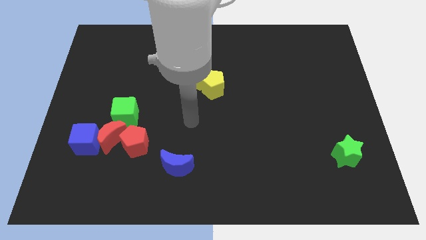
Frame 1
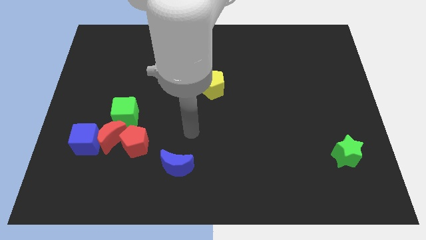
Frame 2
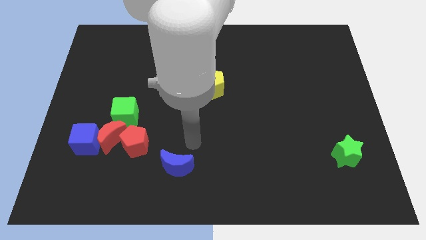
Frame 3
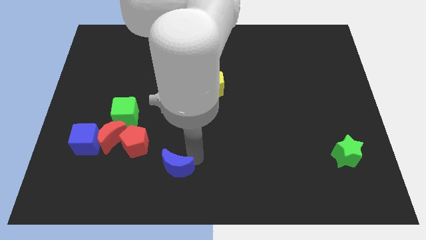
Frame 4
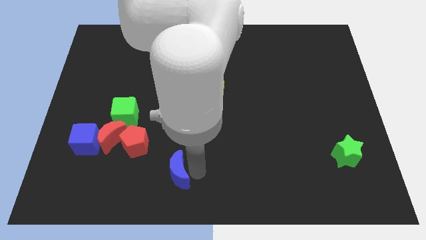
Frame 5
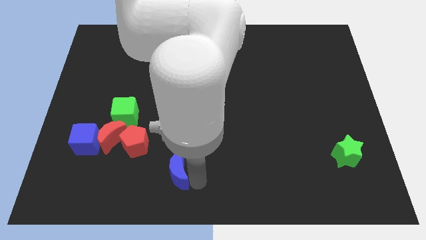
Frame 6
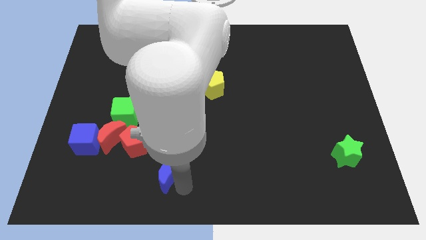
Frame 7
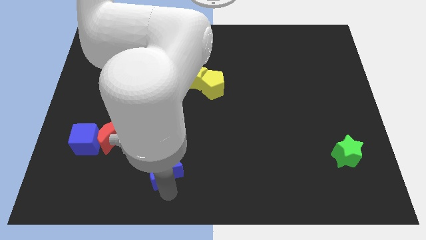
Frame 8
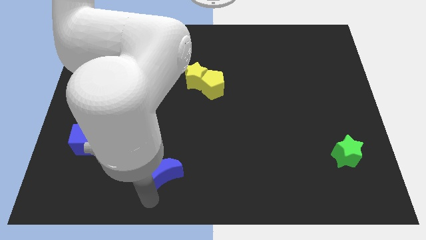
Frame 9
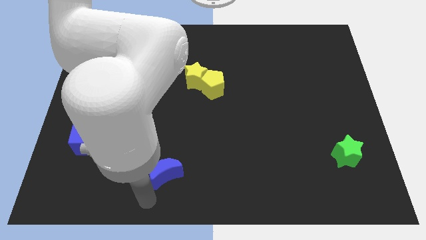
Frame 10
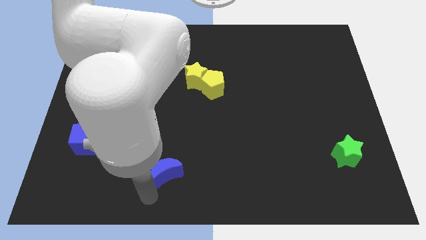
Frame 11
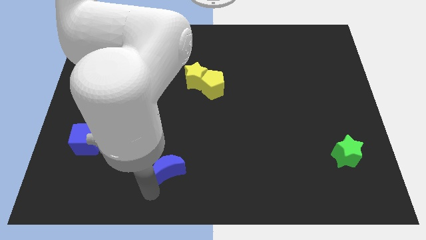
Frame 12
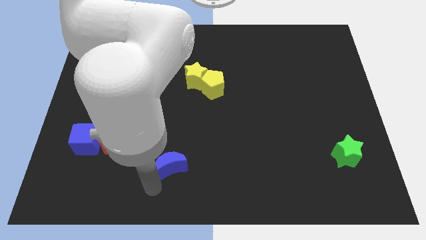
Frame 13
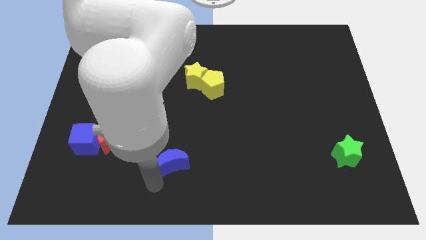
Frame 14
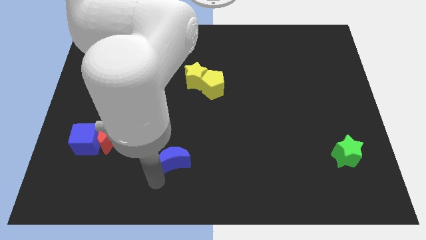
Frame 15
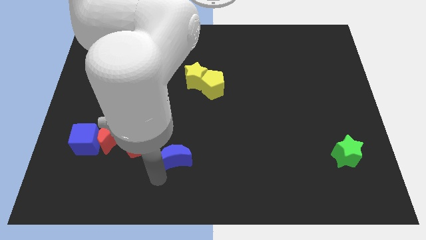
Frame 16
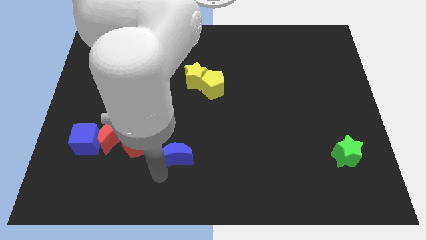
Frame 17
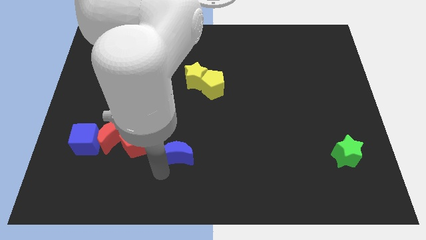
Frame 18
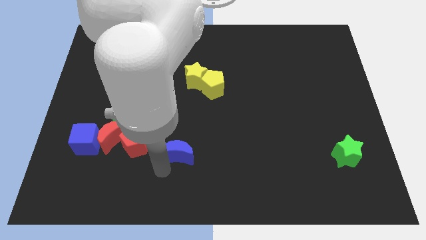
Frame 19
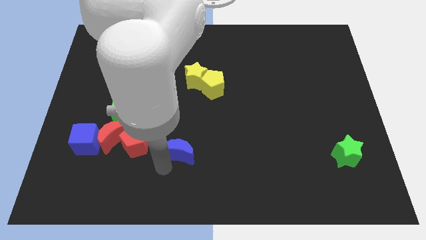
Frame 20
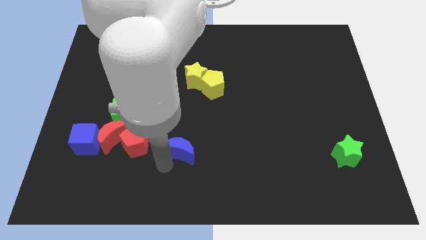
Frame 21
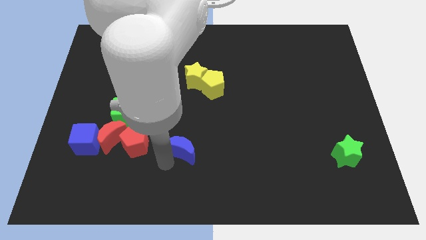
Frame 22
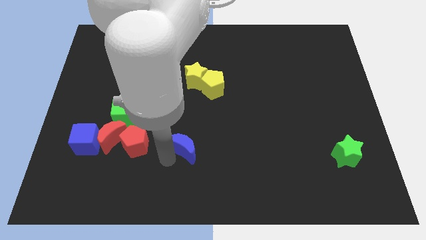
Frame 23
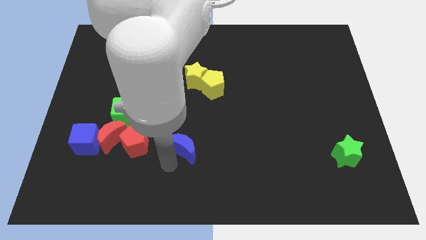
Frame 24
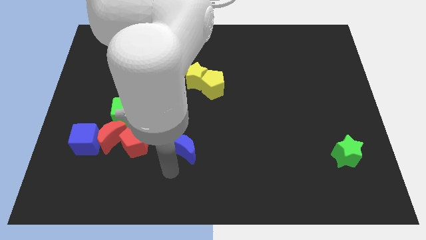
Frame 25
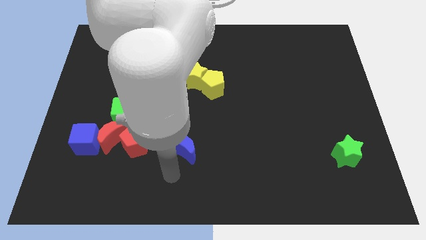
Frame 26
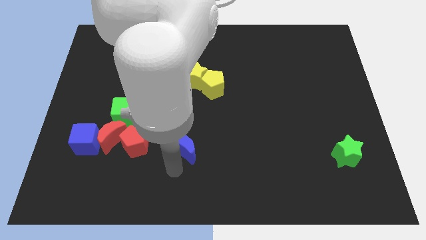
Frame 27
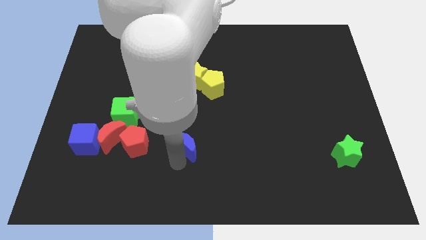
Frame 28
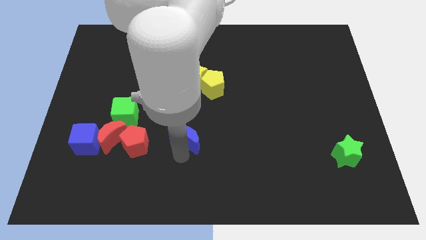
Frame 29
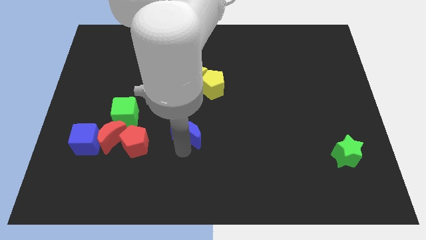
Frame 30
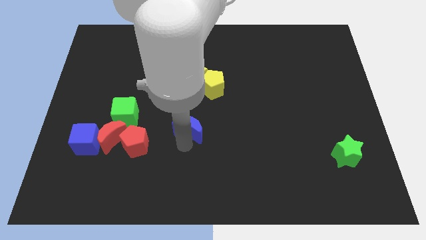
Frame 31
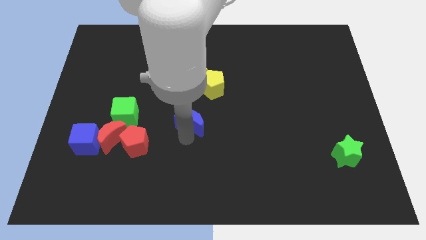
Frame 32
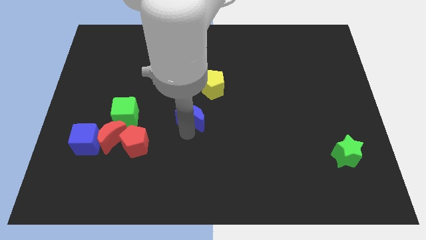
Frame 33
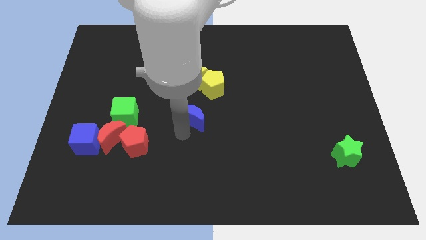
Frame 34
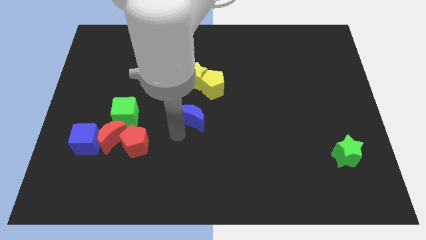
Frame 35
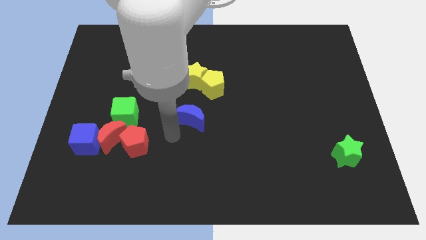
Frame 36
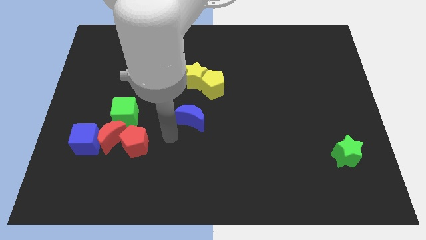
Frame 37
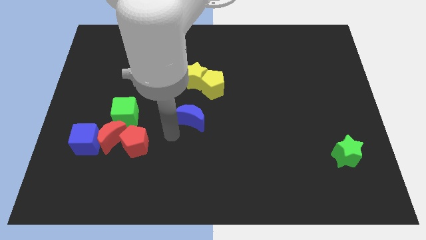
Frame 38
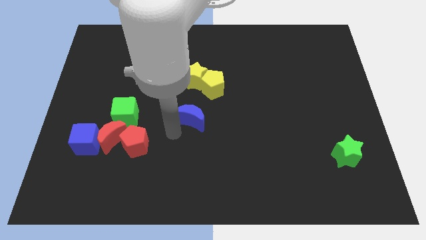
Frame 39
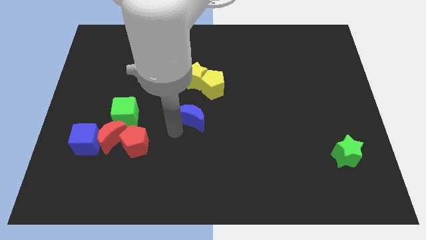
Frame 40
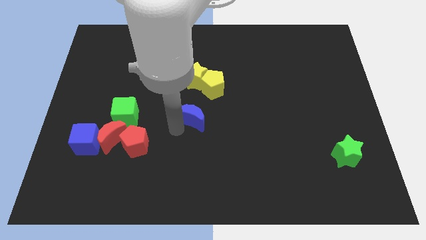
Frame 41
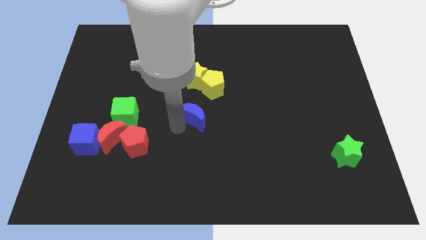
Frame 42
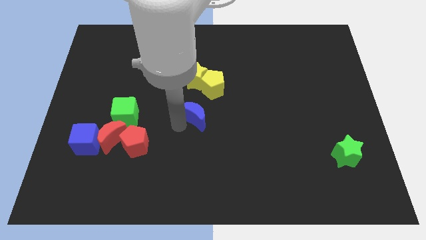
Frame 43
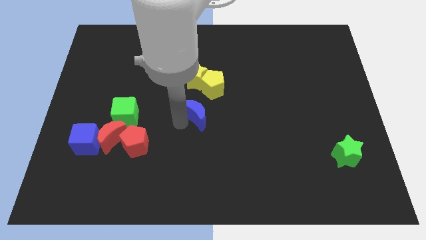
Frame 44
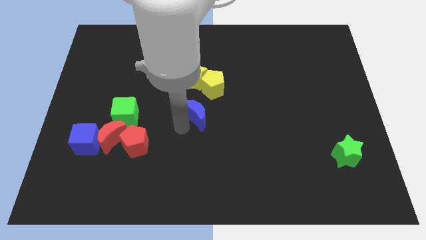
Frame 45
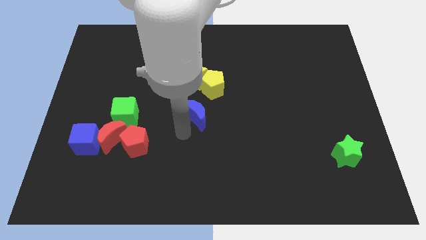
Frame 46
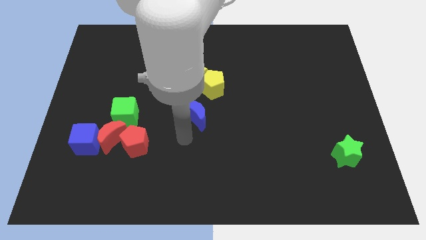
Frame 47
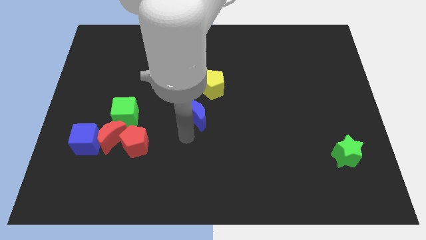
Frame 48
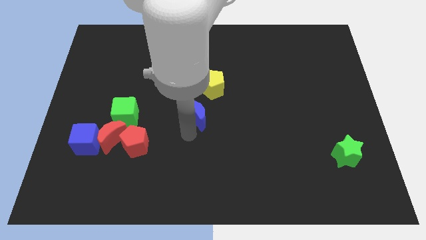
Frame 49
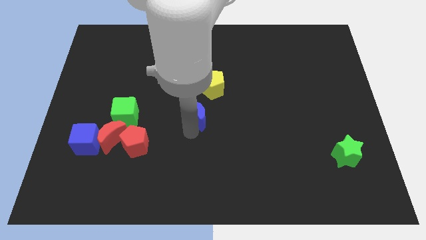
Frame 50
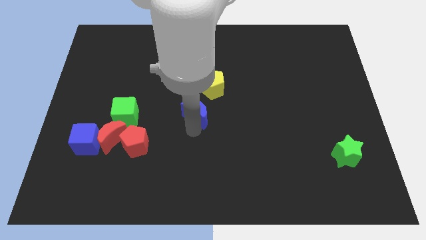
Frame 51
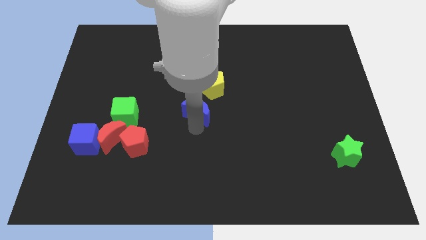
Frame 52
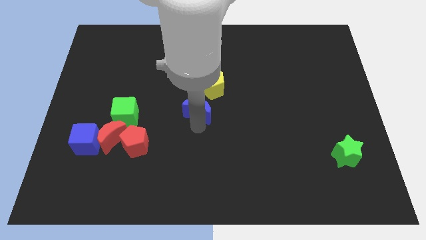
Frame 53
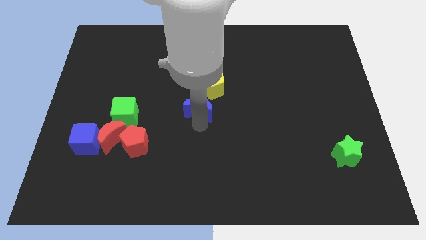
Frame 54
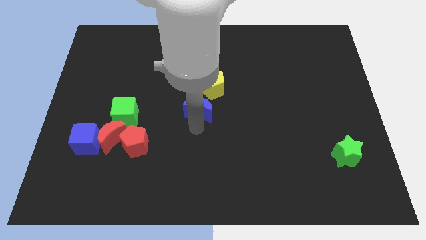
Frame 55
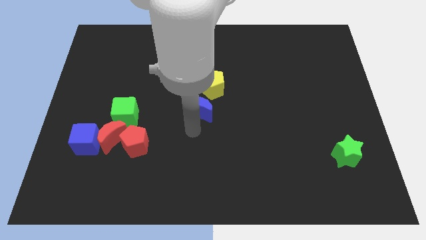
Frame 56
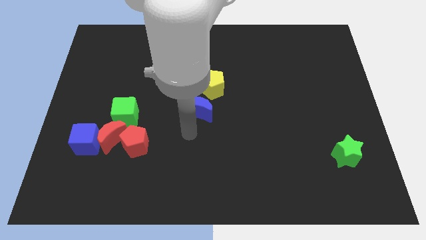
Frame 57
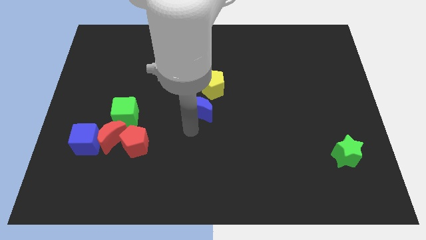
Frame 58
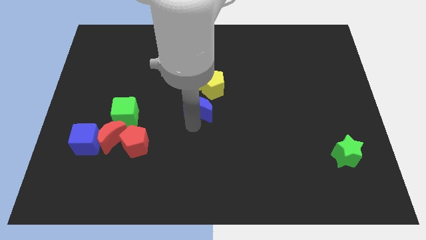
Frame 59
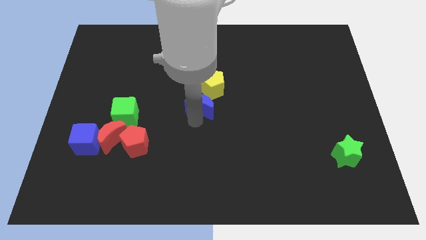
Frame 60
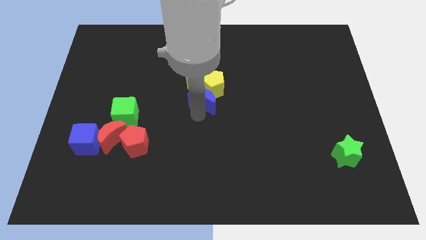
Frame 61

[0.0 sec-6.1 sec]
put the blue moon towards the yellow pentagon

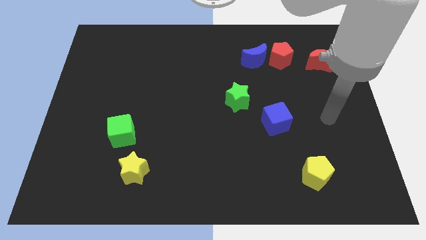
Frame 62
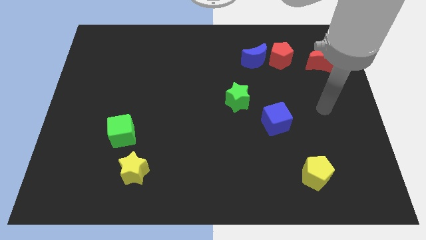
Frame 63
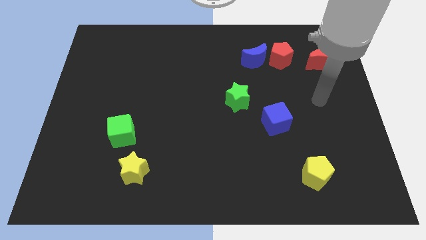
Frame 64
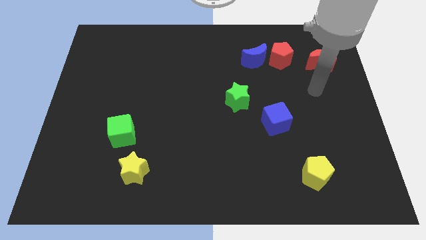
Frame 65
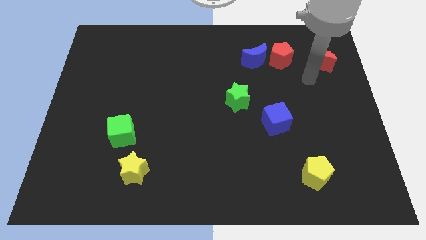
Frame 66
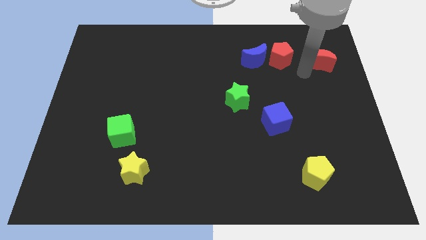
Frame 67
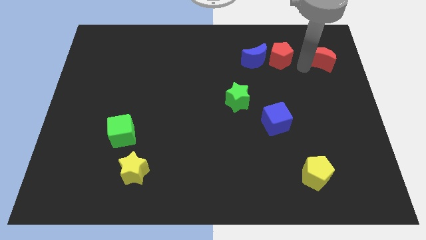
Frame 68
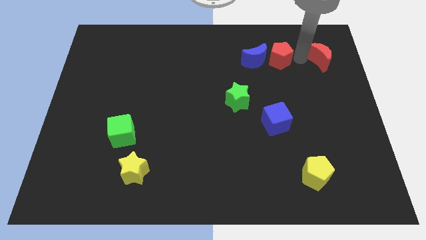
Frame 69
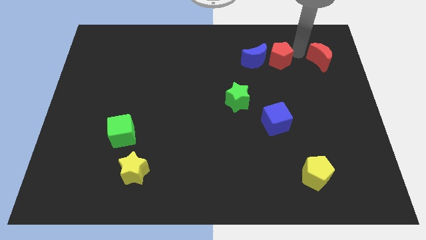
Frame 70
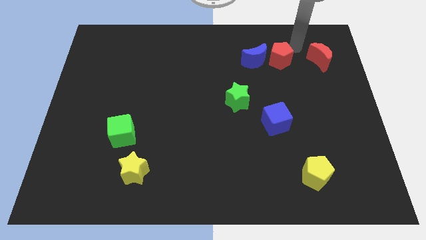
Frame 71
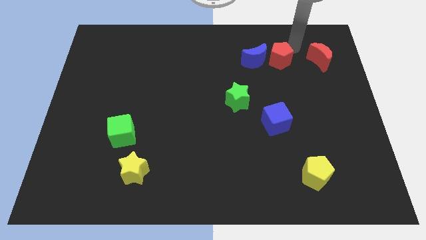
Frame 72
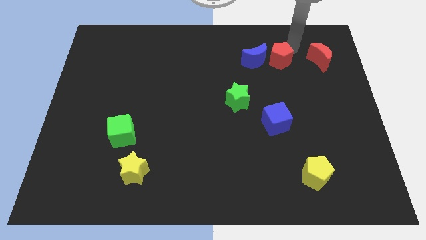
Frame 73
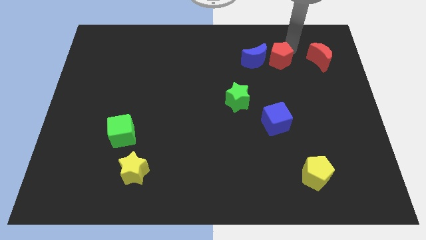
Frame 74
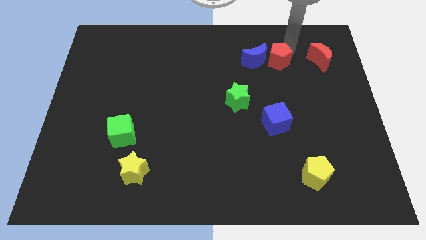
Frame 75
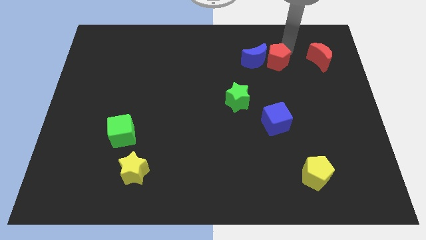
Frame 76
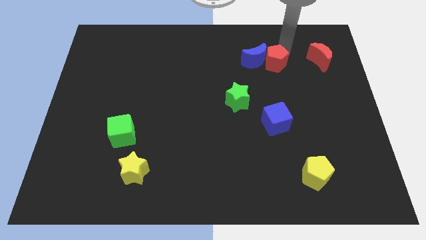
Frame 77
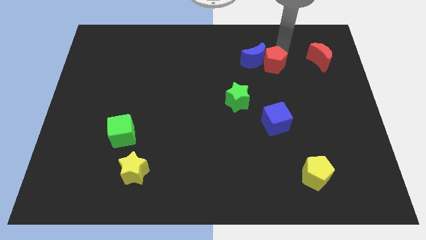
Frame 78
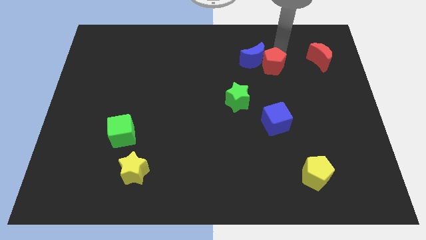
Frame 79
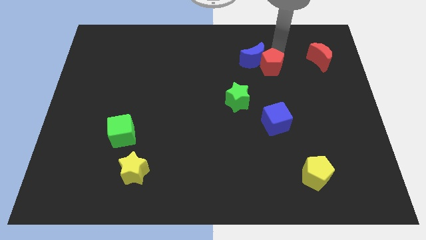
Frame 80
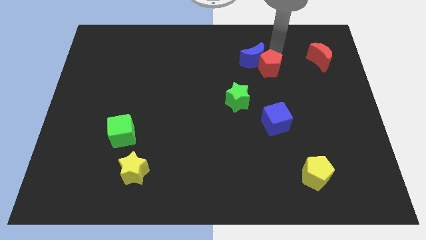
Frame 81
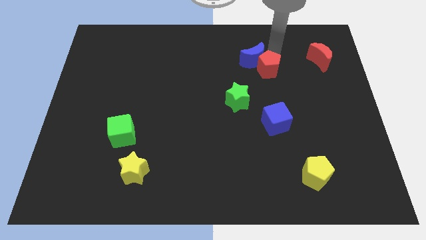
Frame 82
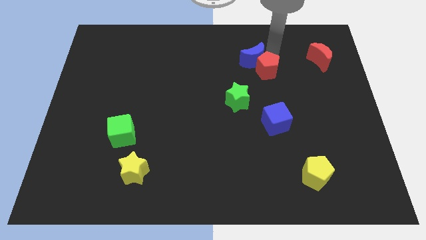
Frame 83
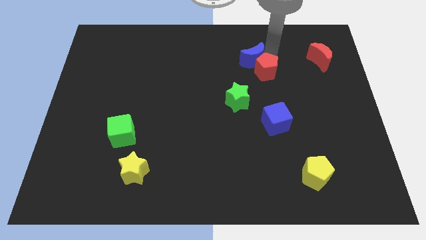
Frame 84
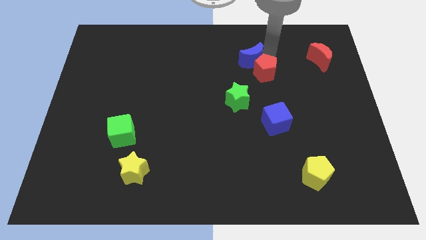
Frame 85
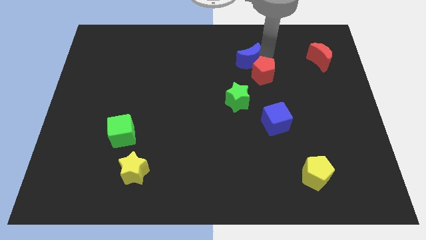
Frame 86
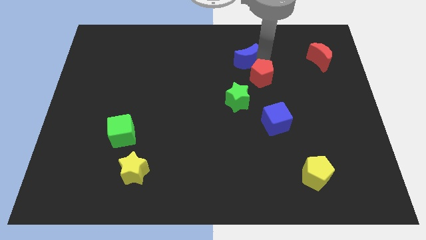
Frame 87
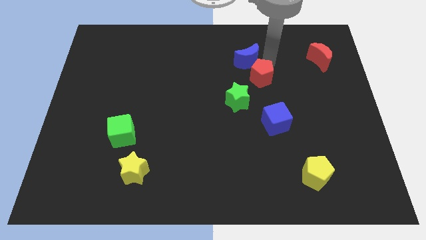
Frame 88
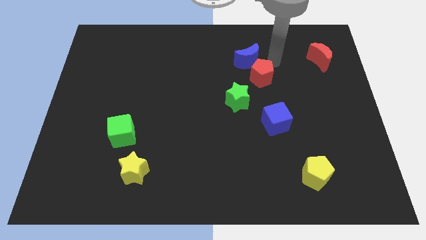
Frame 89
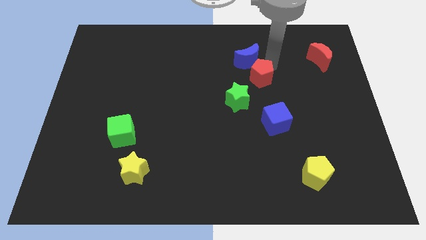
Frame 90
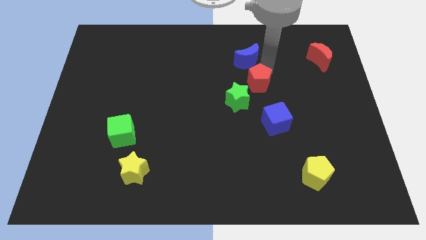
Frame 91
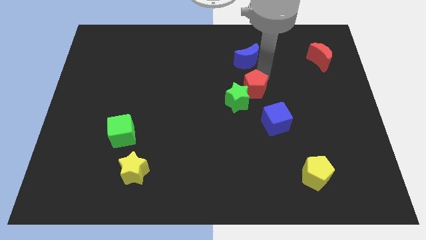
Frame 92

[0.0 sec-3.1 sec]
move the red pentagon close to the green star
